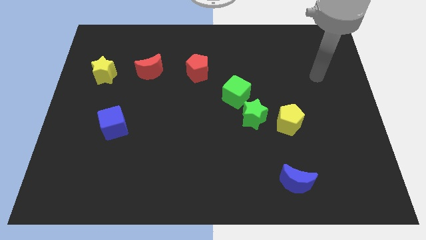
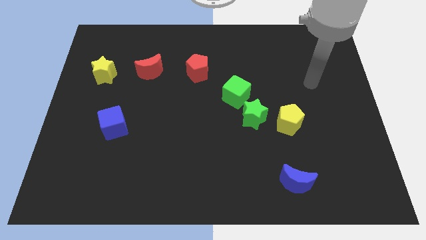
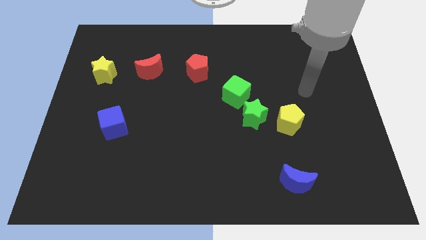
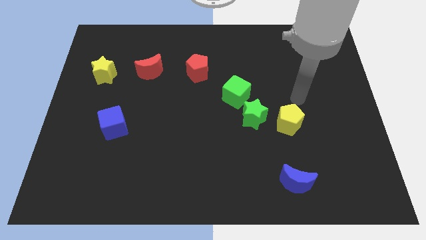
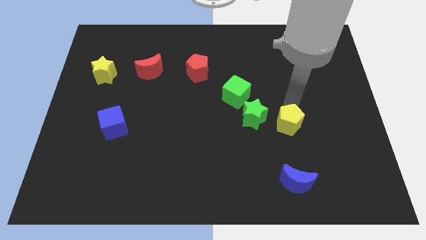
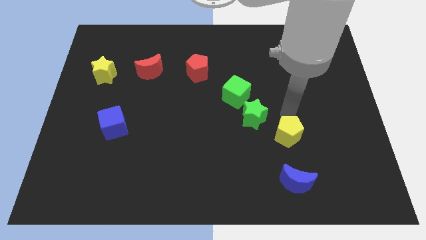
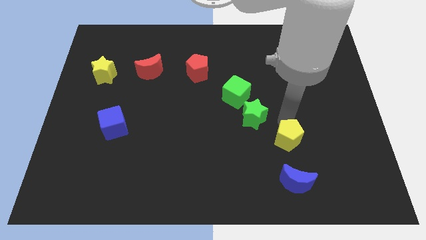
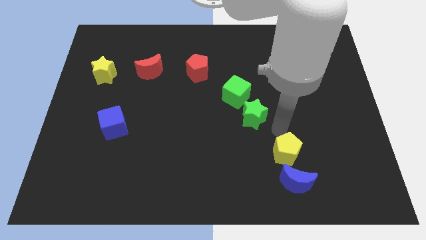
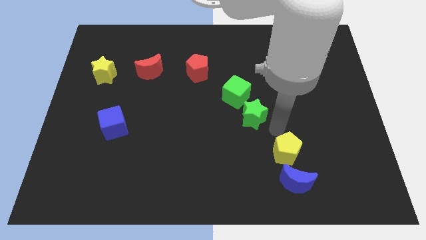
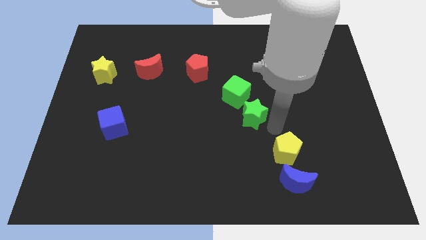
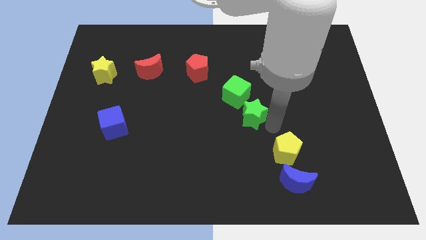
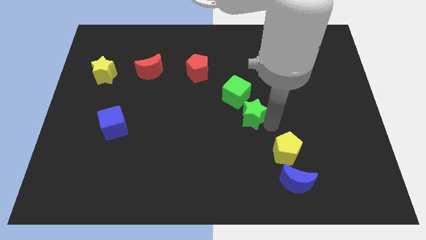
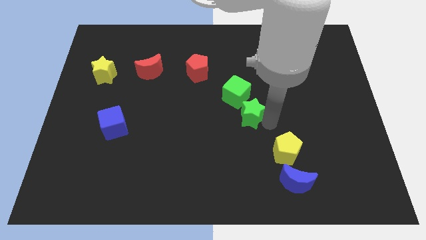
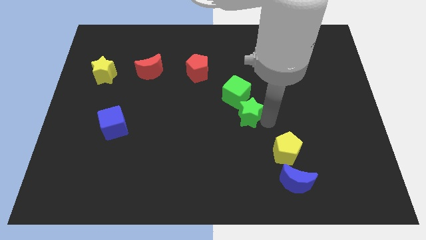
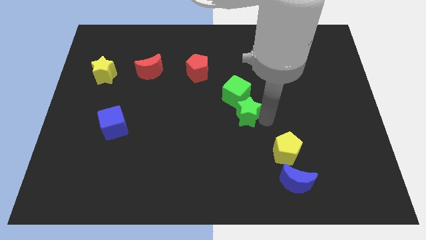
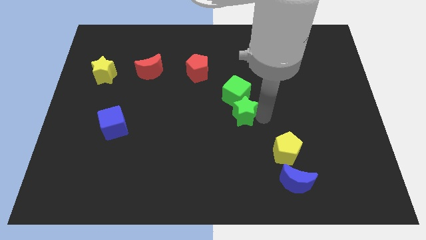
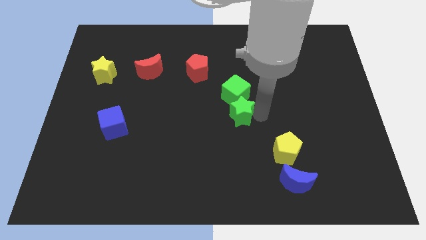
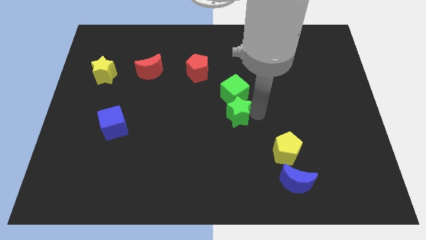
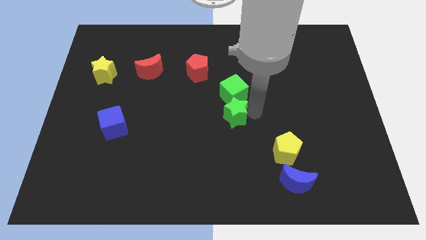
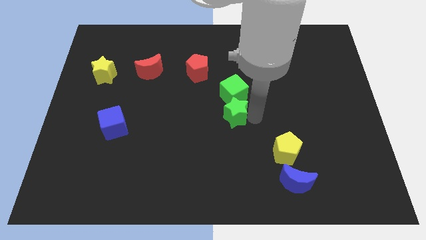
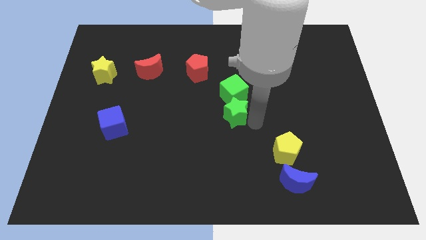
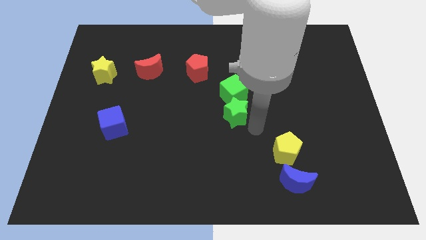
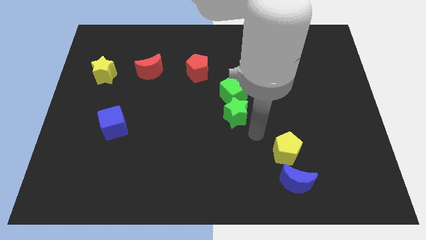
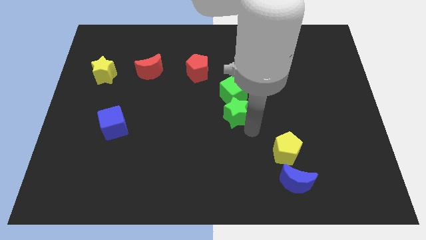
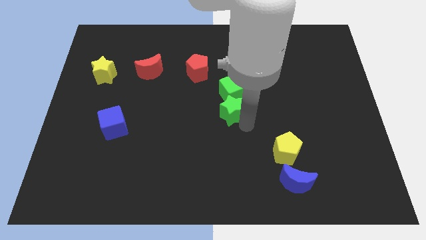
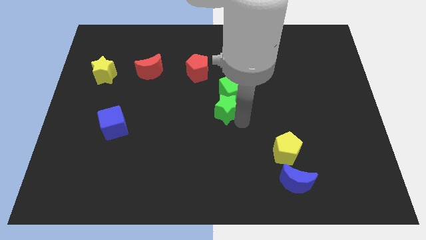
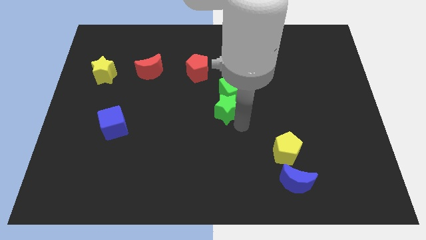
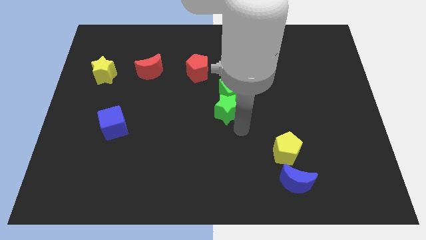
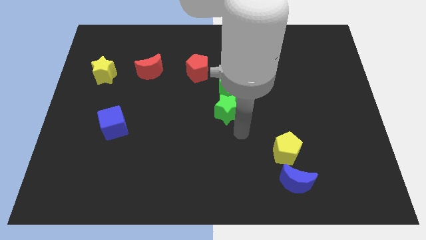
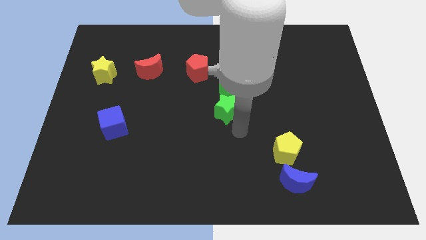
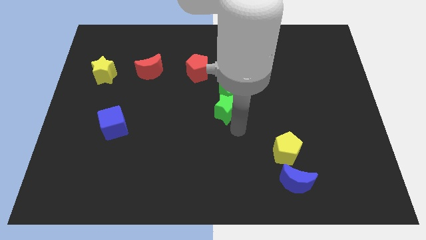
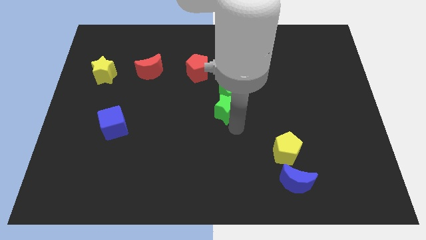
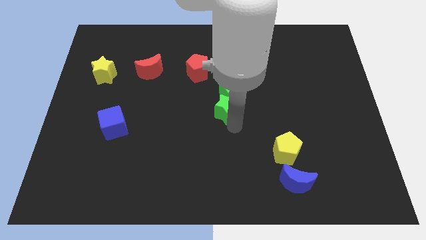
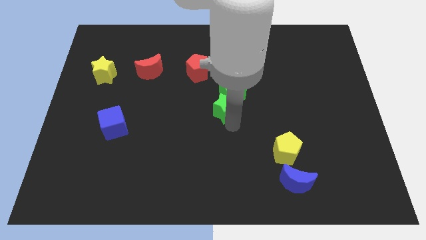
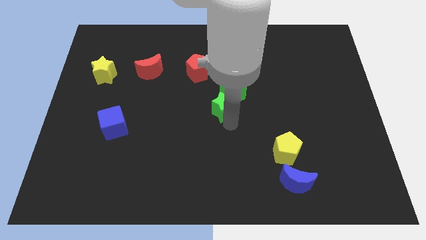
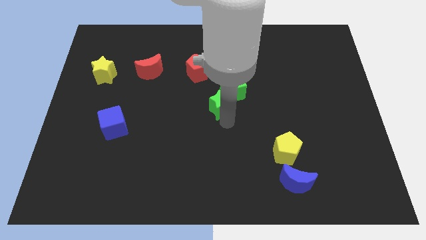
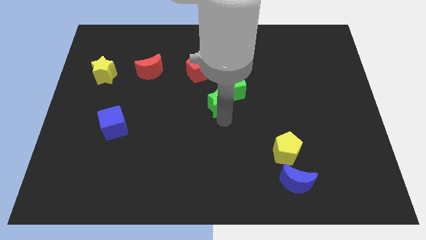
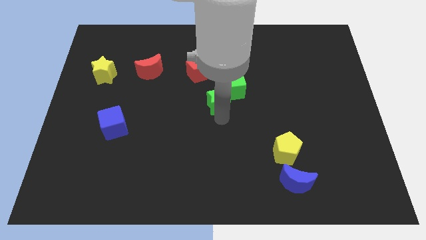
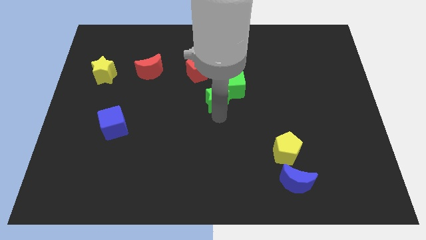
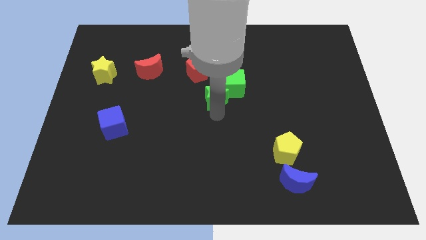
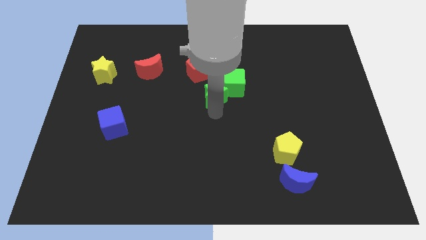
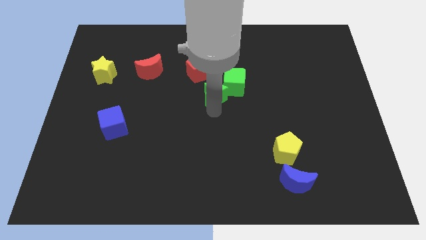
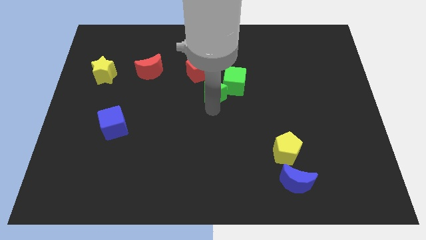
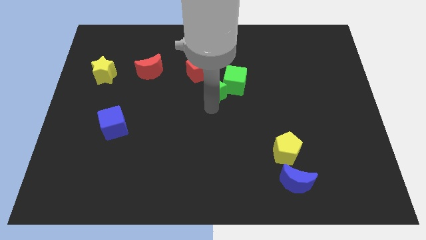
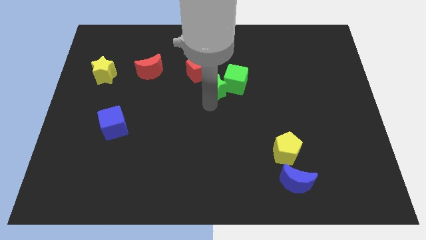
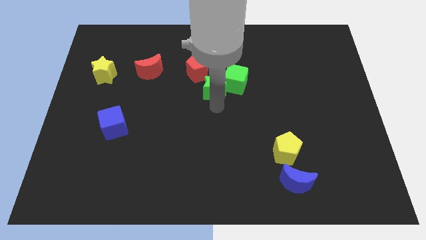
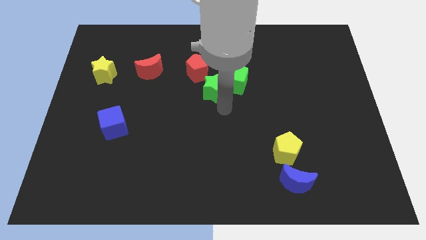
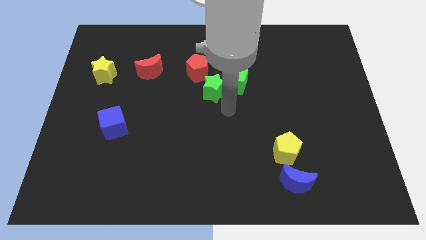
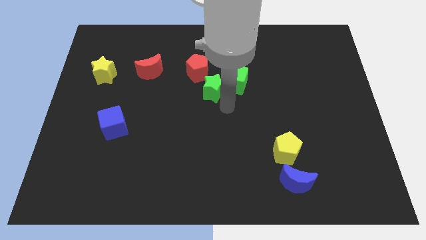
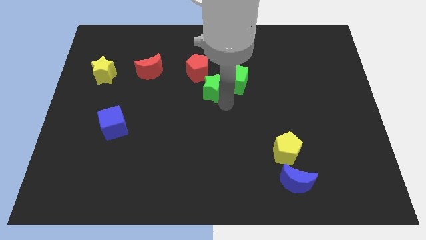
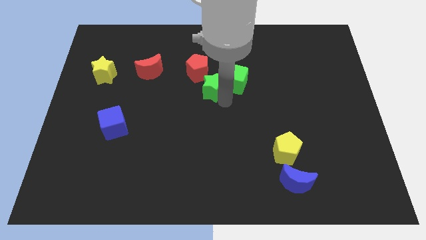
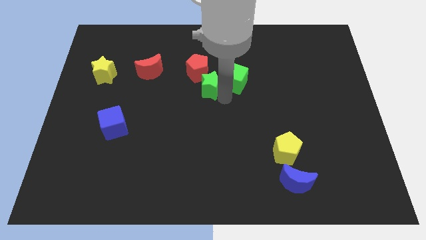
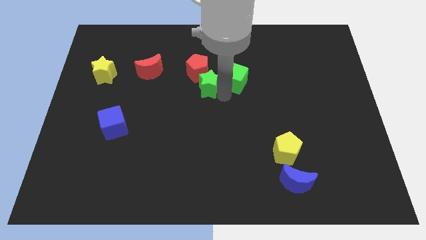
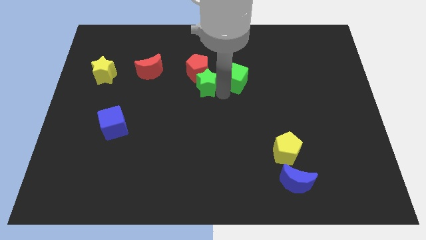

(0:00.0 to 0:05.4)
move the green star close to the red pentagon

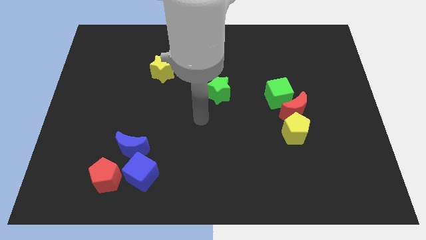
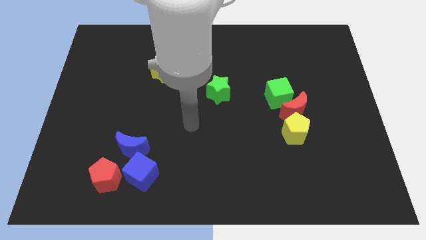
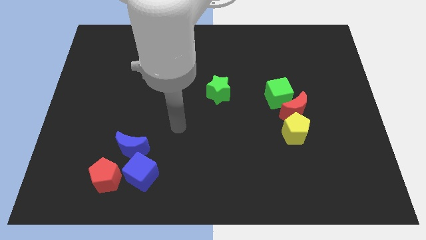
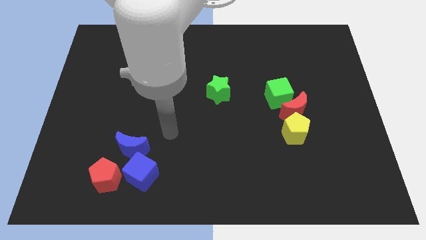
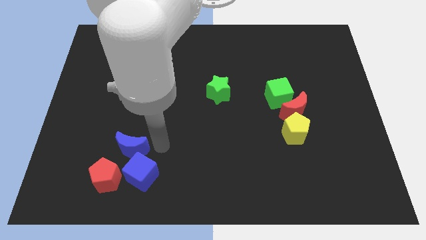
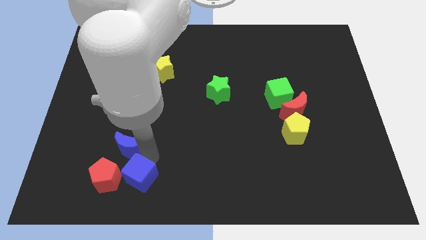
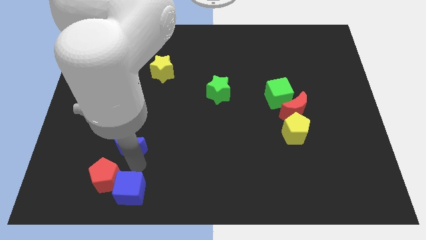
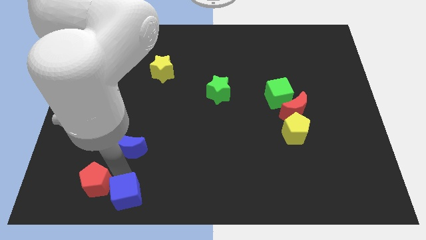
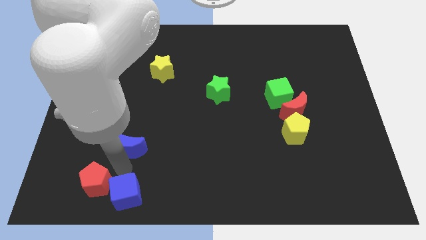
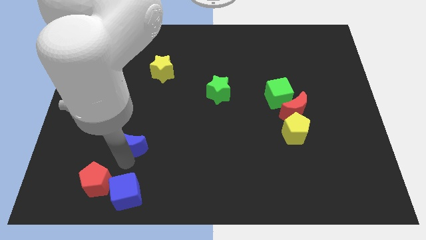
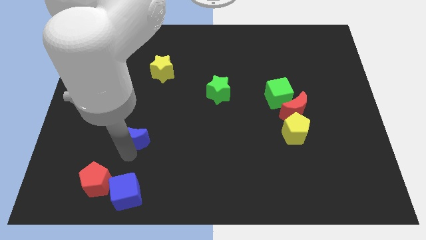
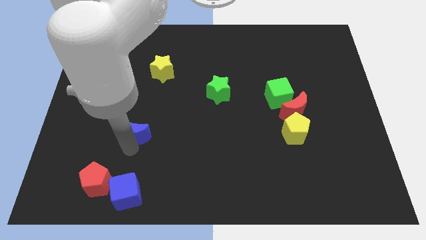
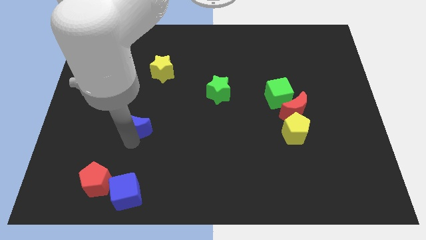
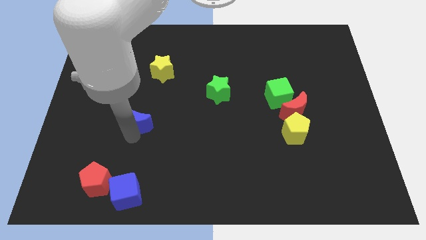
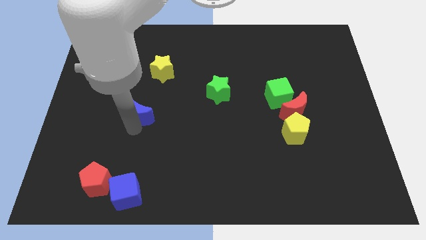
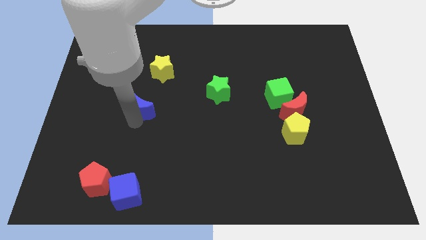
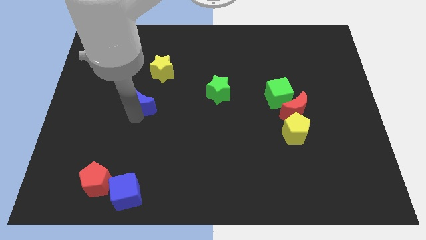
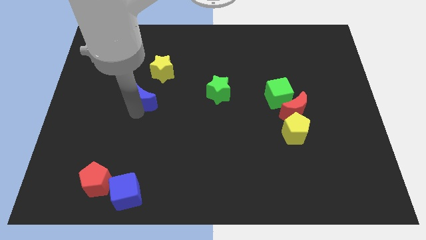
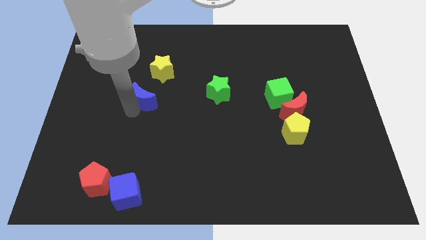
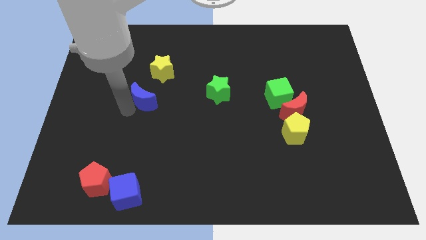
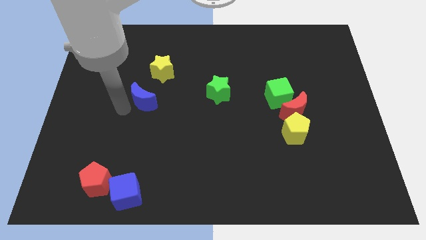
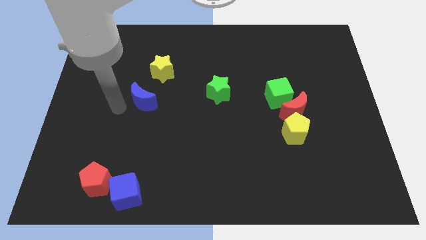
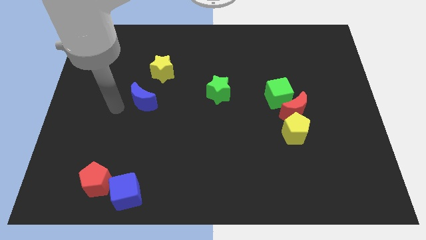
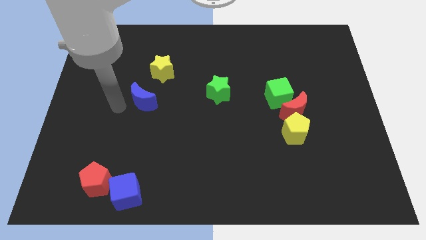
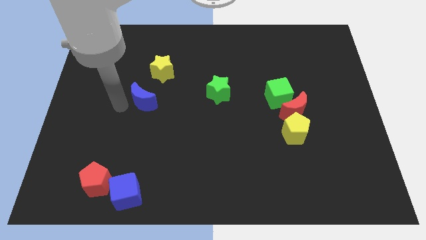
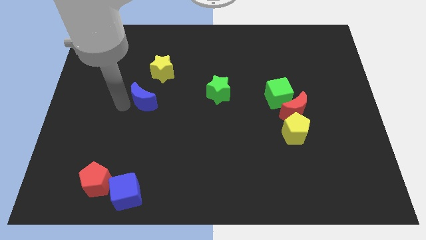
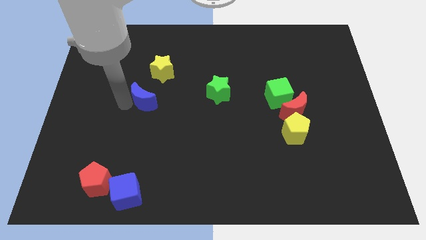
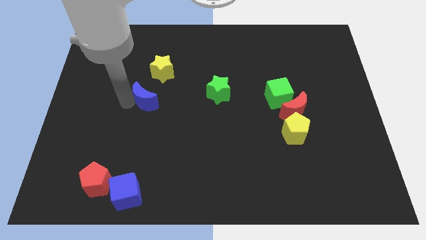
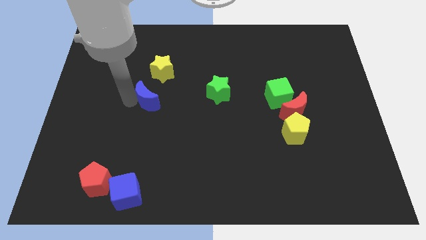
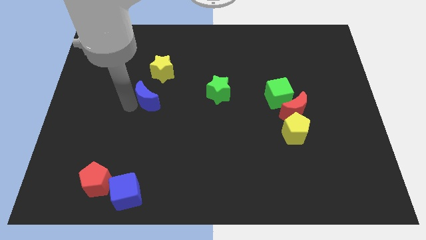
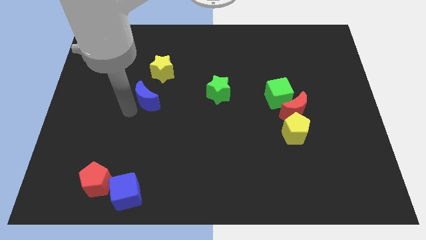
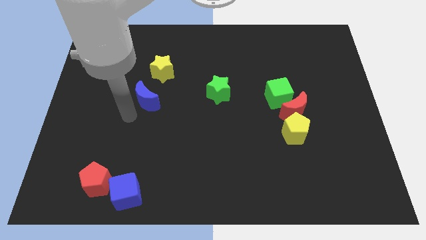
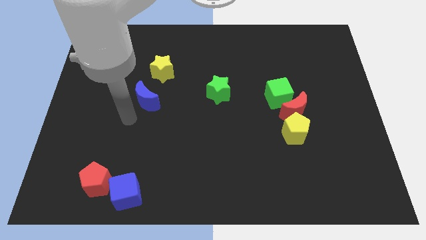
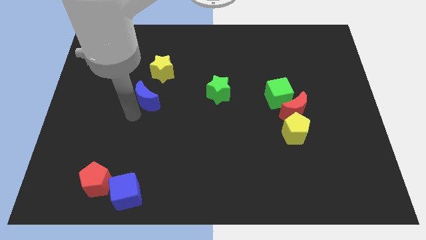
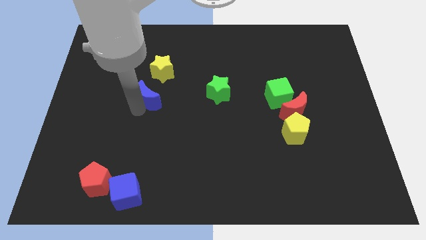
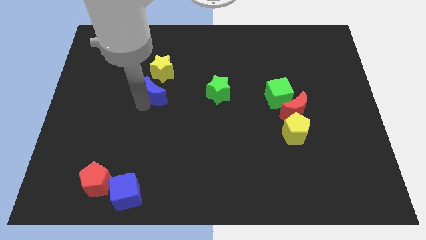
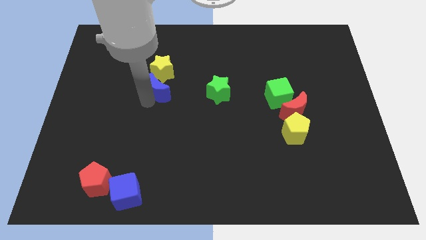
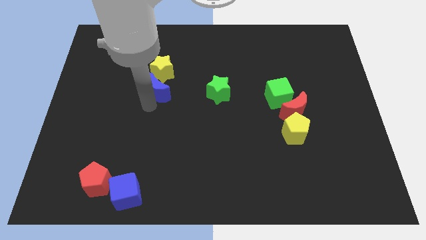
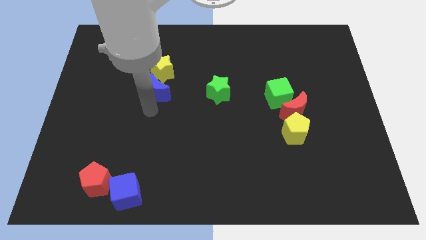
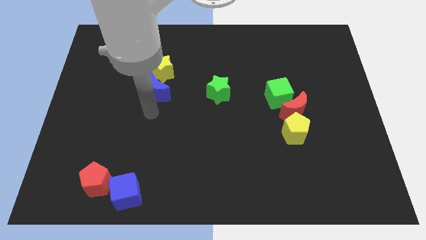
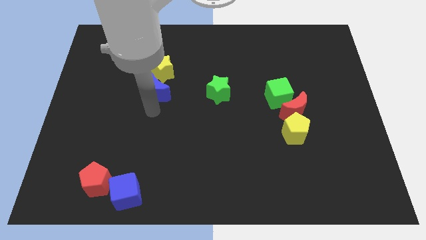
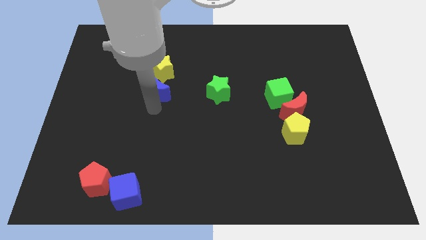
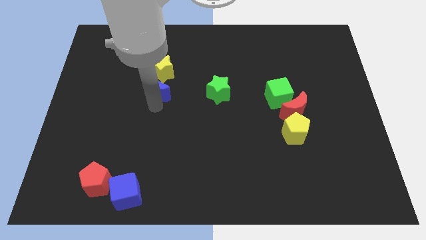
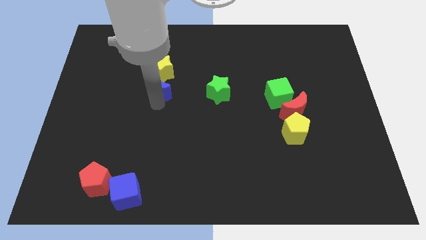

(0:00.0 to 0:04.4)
slide the blue moon to the yellow star
